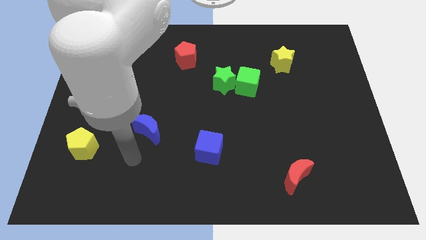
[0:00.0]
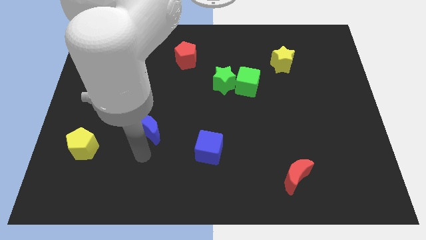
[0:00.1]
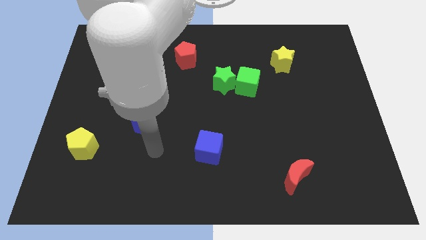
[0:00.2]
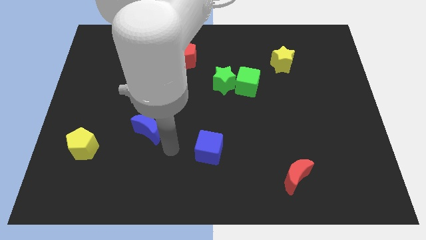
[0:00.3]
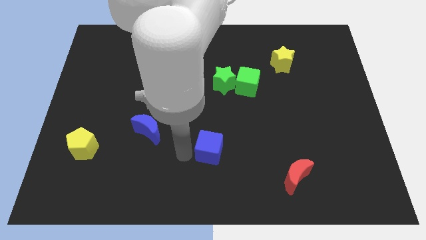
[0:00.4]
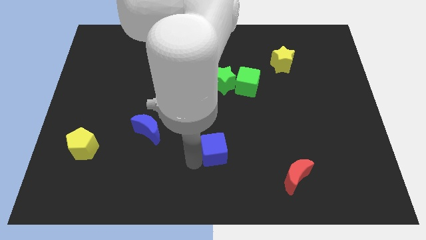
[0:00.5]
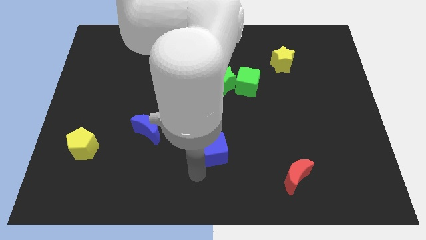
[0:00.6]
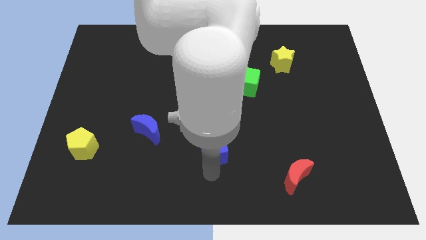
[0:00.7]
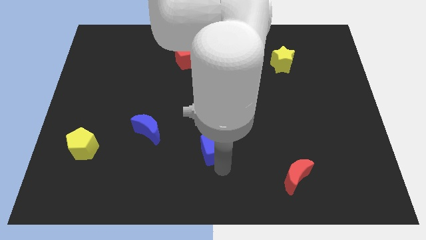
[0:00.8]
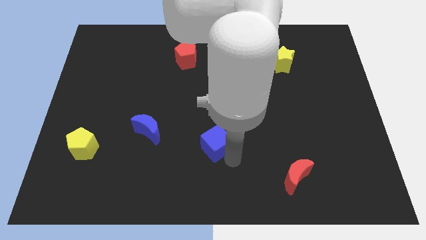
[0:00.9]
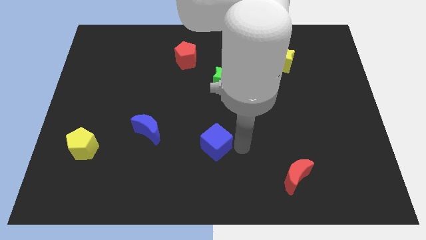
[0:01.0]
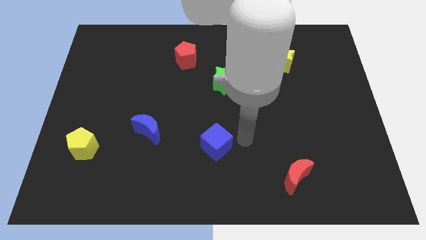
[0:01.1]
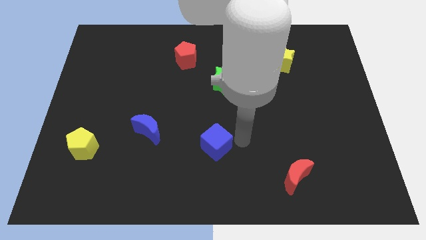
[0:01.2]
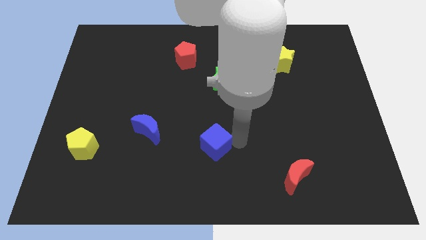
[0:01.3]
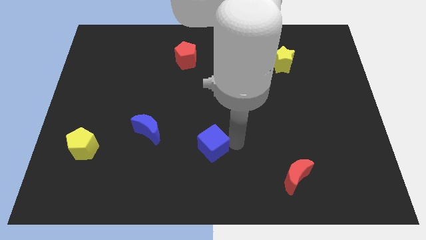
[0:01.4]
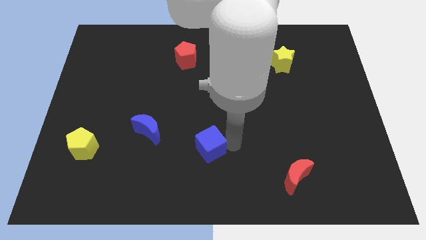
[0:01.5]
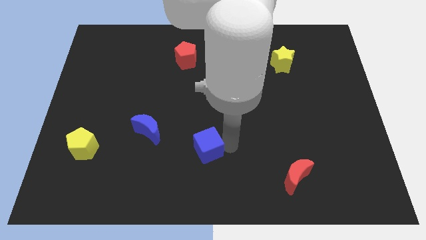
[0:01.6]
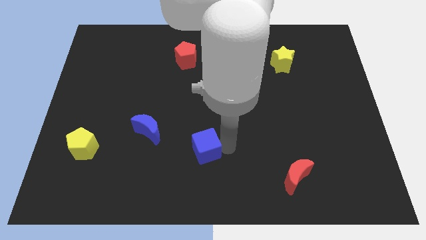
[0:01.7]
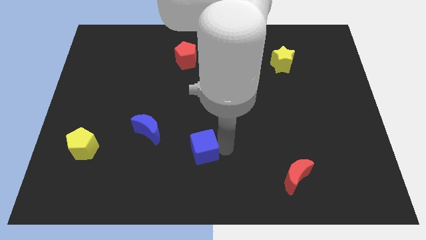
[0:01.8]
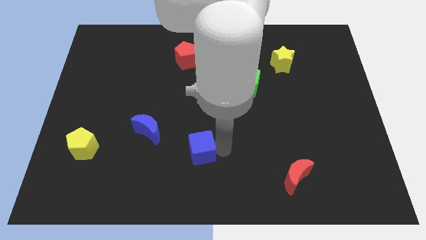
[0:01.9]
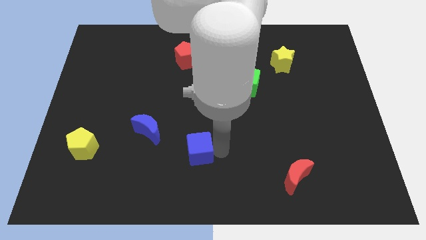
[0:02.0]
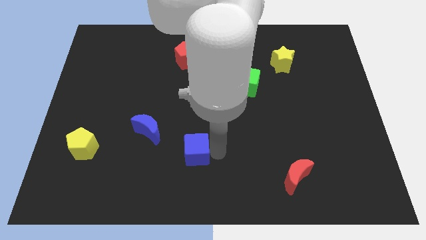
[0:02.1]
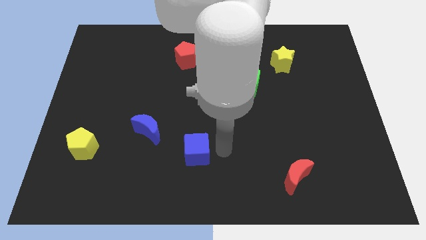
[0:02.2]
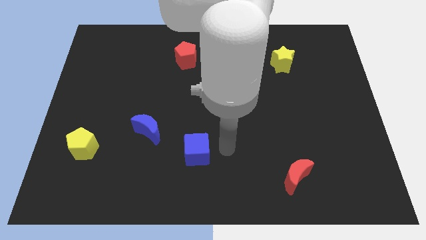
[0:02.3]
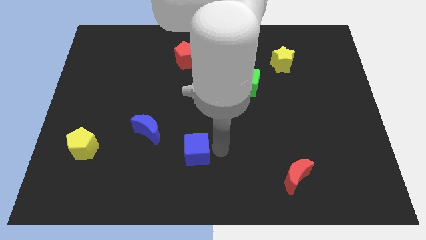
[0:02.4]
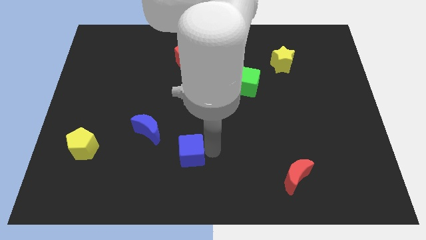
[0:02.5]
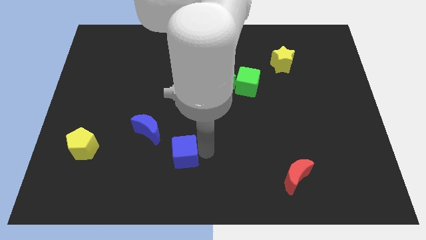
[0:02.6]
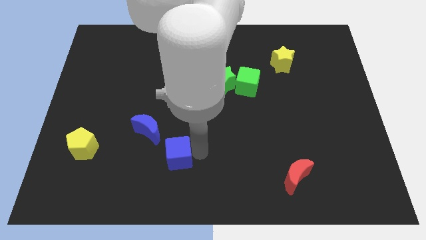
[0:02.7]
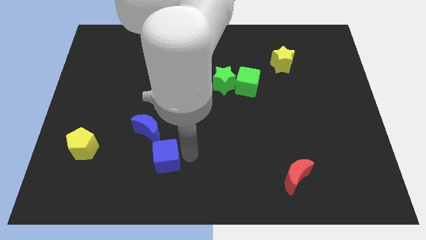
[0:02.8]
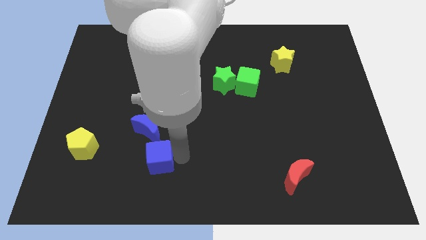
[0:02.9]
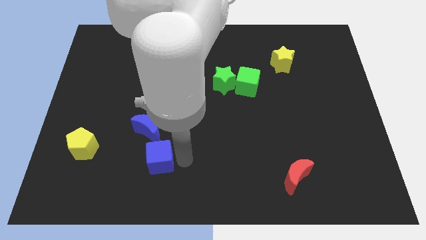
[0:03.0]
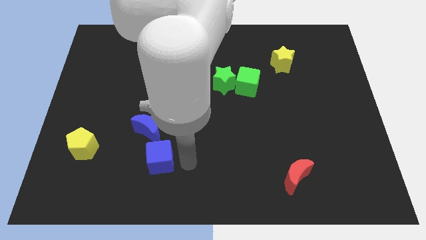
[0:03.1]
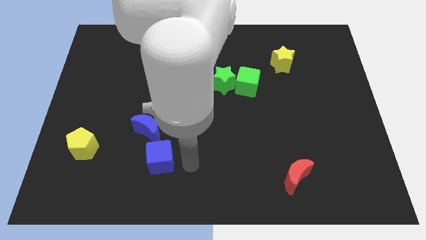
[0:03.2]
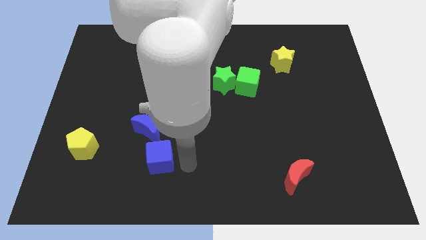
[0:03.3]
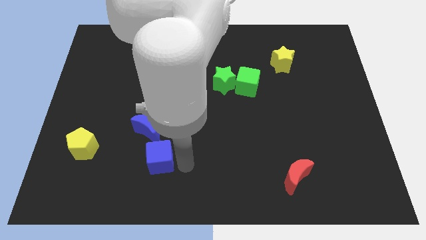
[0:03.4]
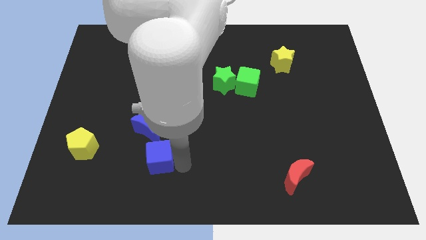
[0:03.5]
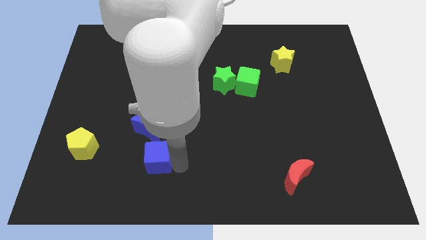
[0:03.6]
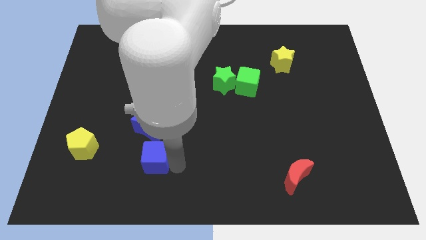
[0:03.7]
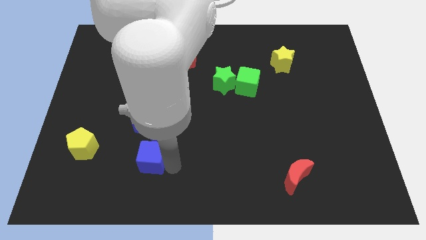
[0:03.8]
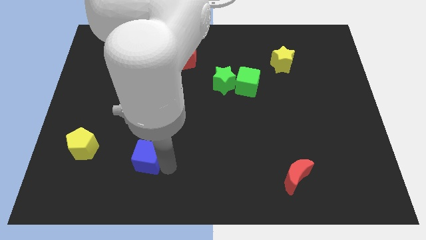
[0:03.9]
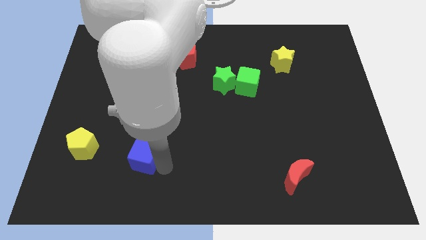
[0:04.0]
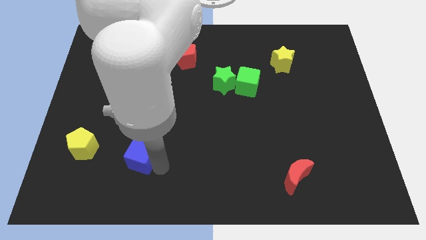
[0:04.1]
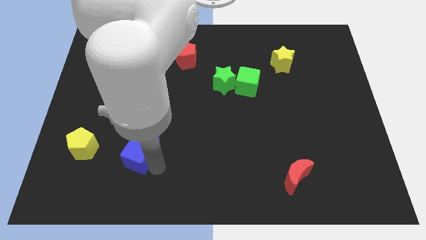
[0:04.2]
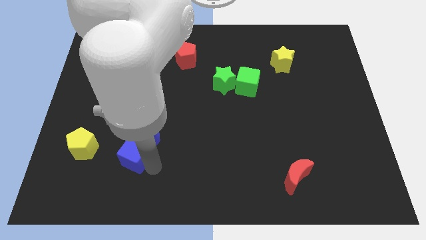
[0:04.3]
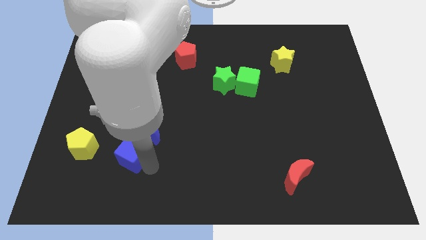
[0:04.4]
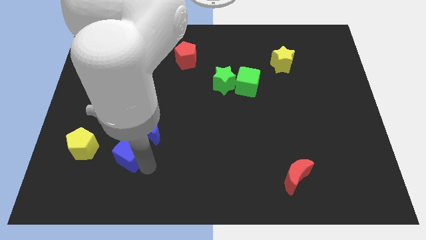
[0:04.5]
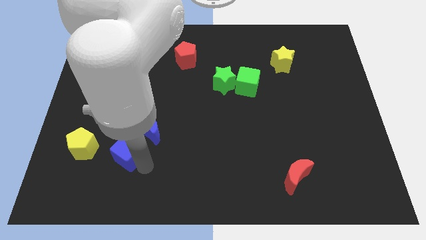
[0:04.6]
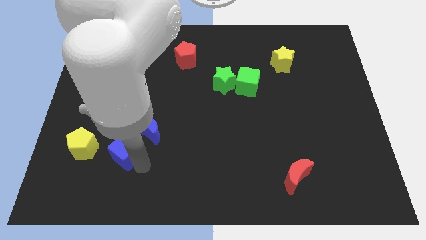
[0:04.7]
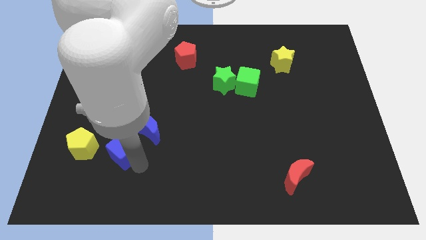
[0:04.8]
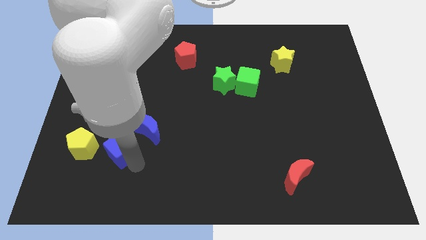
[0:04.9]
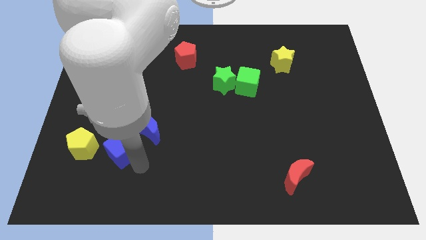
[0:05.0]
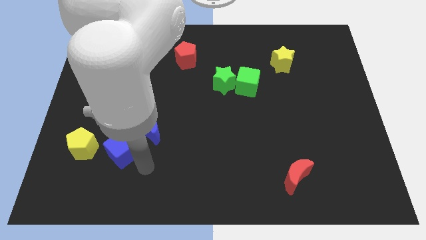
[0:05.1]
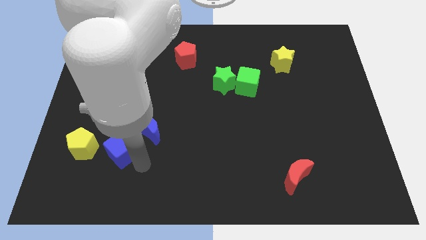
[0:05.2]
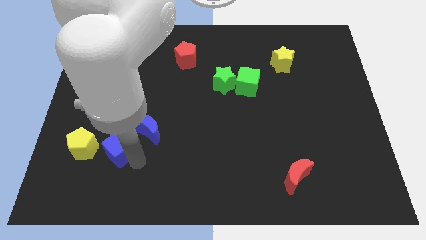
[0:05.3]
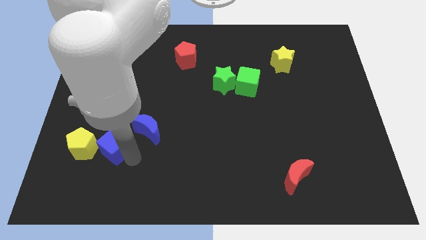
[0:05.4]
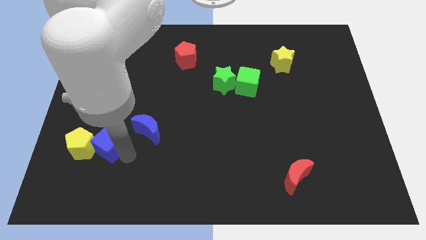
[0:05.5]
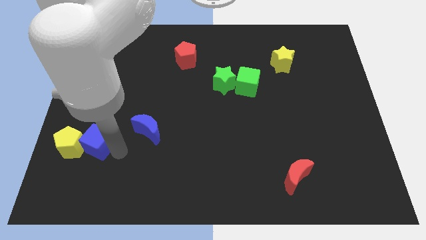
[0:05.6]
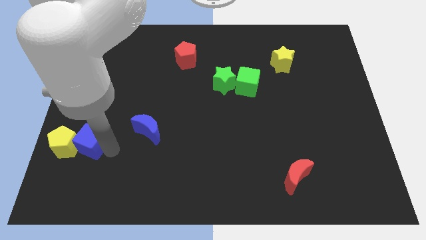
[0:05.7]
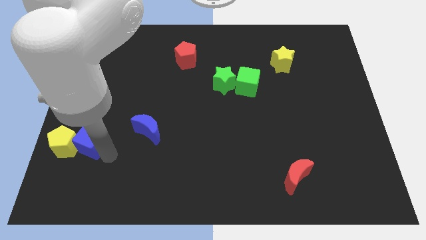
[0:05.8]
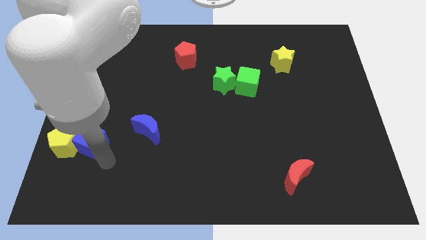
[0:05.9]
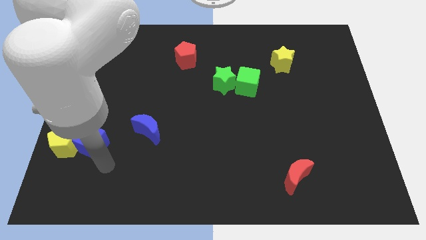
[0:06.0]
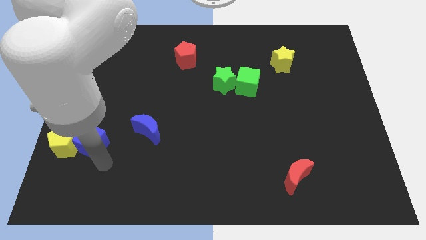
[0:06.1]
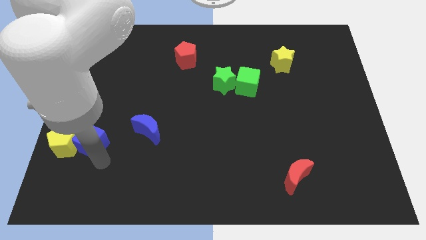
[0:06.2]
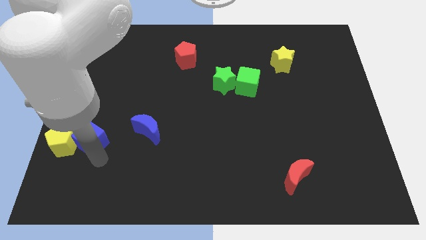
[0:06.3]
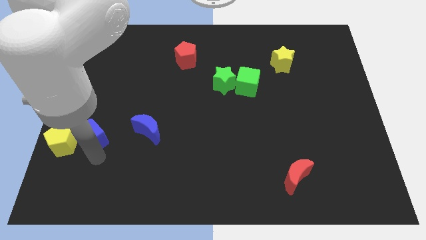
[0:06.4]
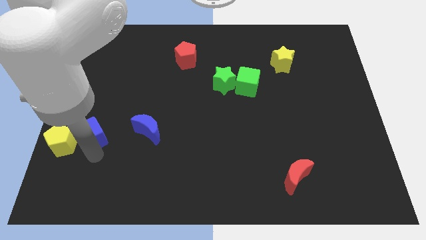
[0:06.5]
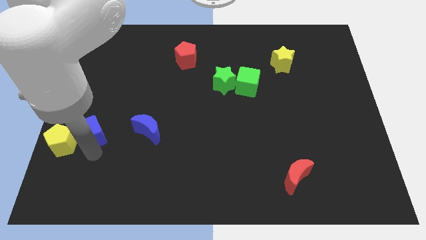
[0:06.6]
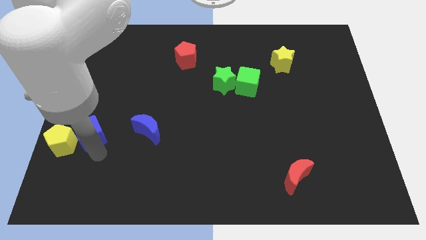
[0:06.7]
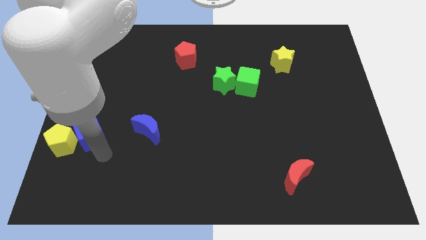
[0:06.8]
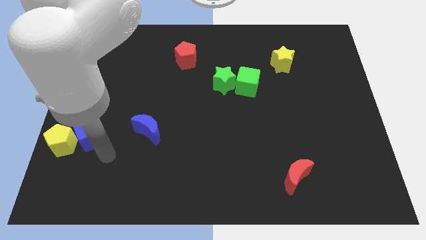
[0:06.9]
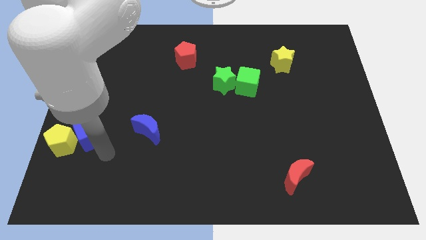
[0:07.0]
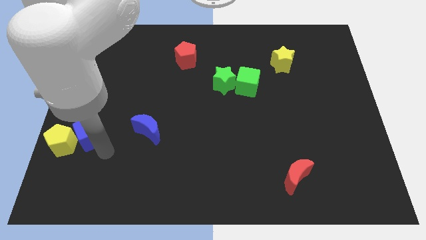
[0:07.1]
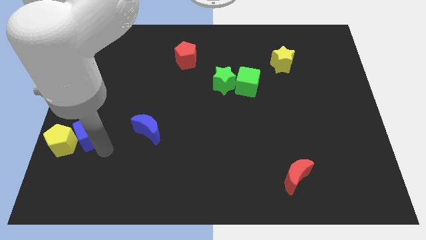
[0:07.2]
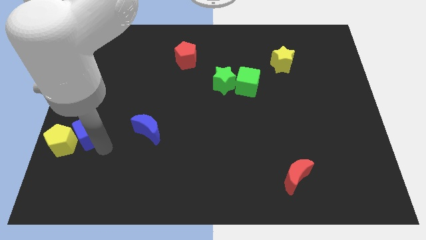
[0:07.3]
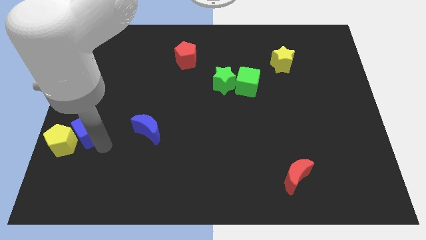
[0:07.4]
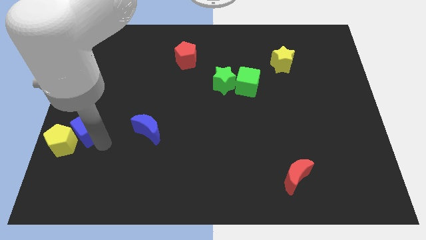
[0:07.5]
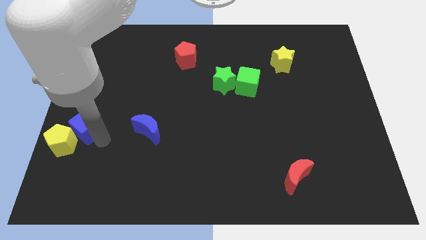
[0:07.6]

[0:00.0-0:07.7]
put the blue cube to the center left
